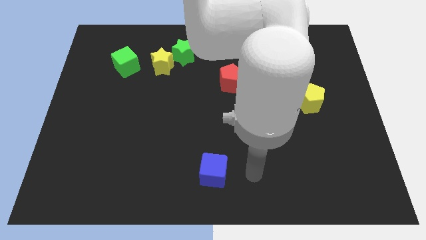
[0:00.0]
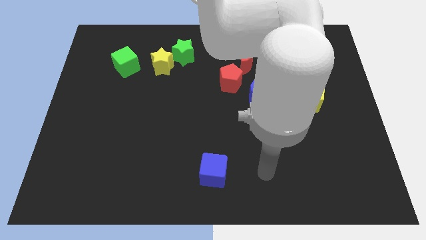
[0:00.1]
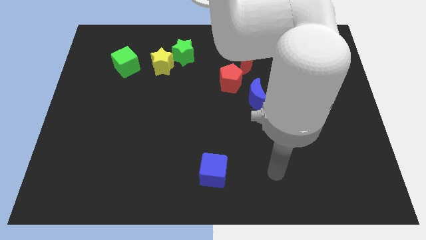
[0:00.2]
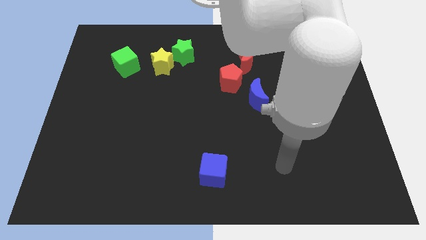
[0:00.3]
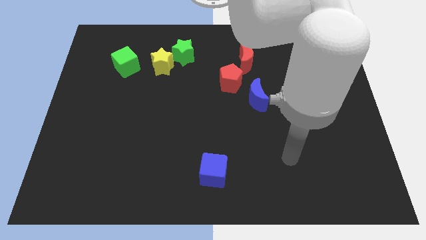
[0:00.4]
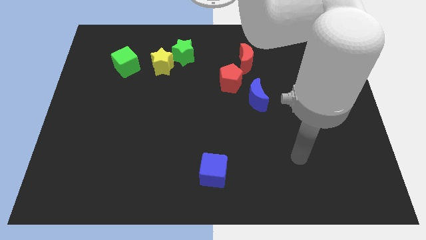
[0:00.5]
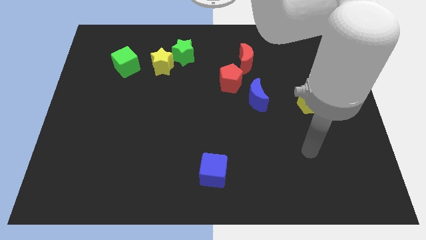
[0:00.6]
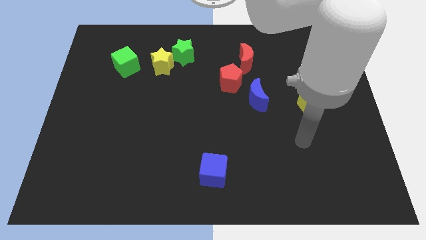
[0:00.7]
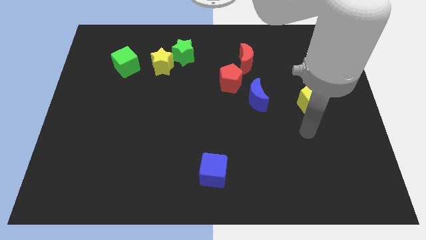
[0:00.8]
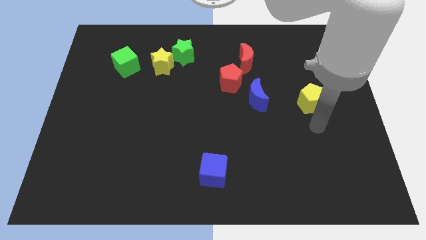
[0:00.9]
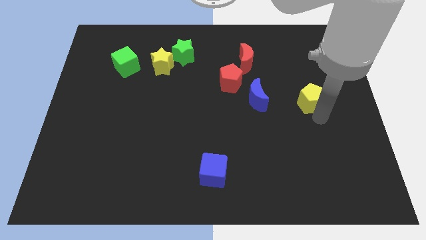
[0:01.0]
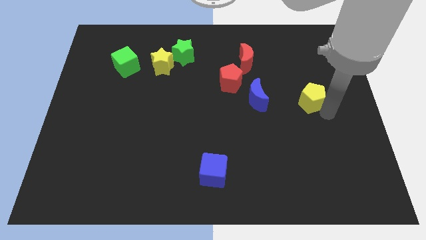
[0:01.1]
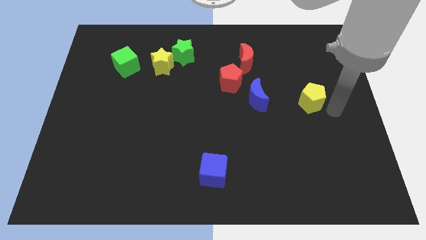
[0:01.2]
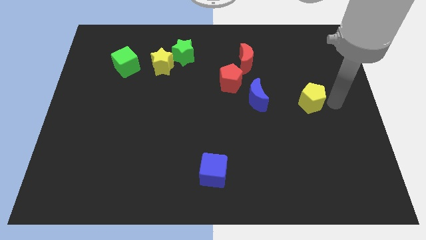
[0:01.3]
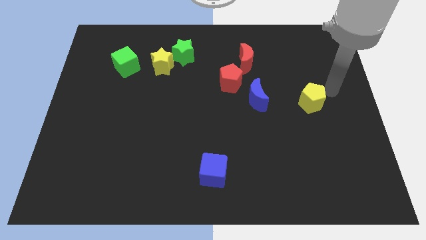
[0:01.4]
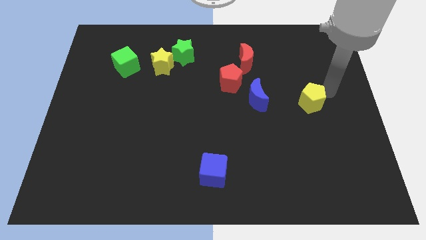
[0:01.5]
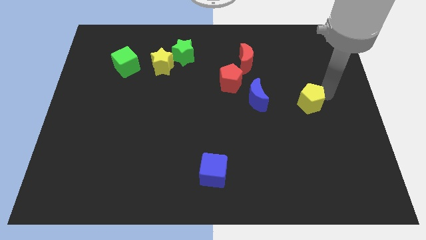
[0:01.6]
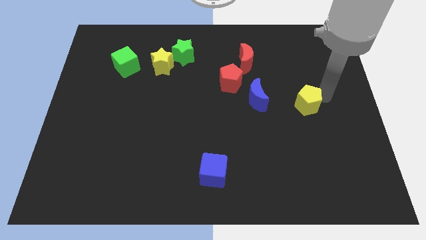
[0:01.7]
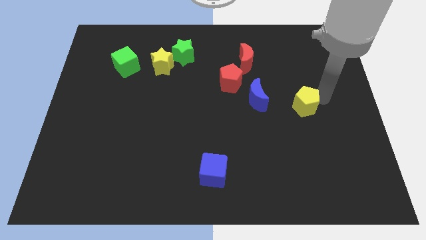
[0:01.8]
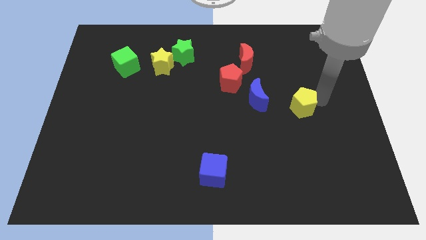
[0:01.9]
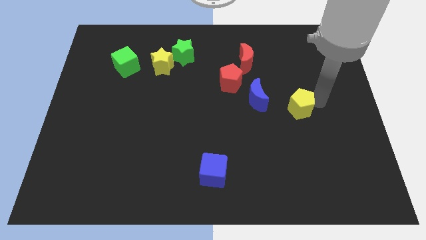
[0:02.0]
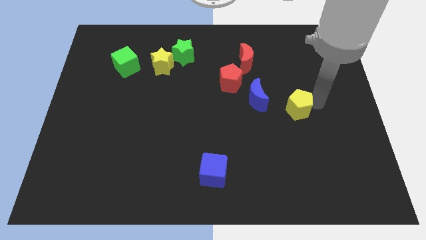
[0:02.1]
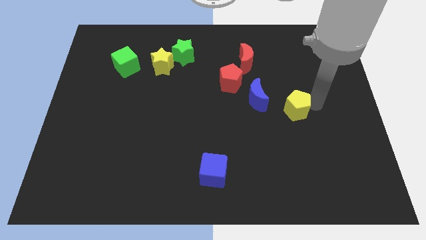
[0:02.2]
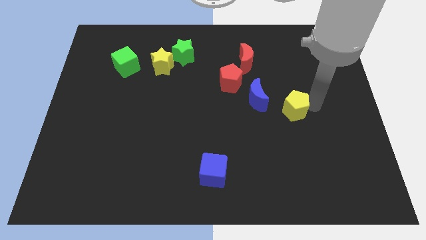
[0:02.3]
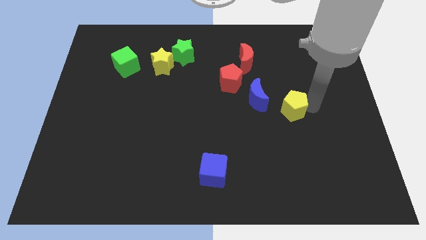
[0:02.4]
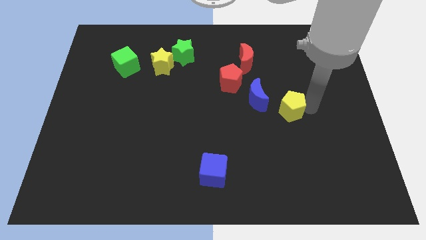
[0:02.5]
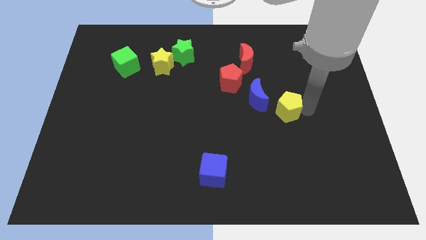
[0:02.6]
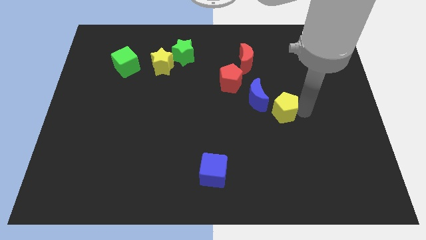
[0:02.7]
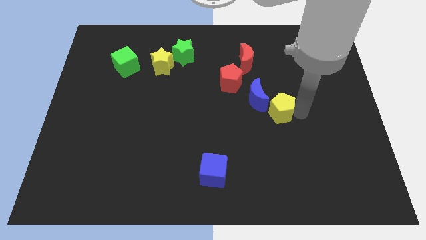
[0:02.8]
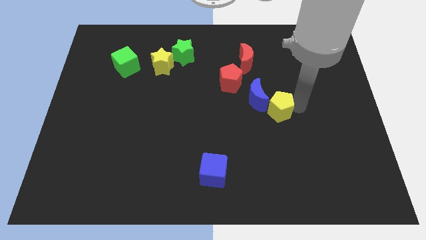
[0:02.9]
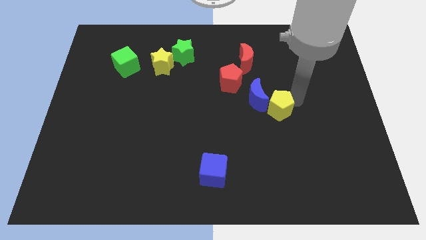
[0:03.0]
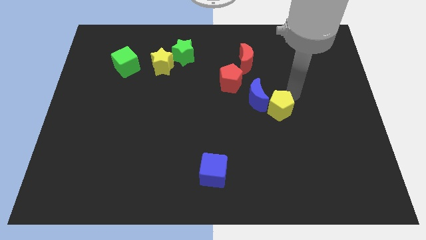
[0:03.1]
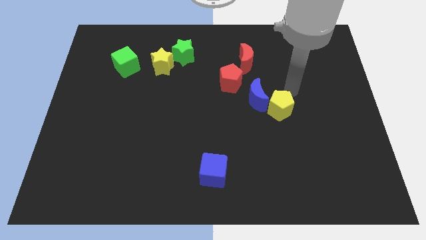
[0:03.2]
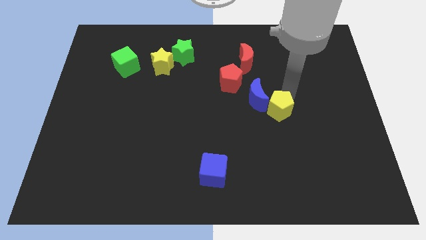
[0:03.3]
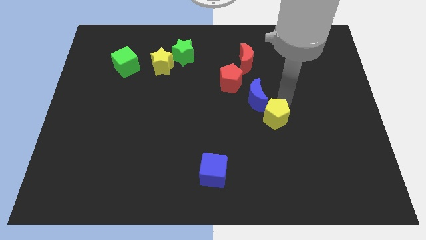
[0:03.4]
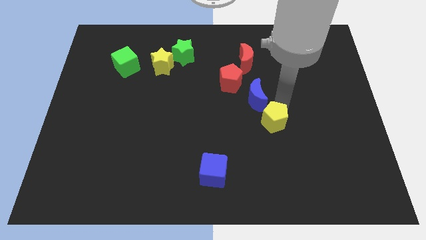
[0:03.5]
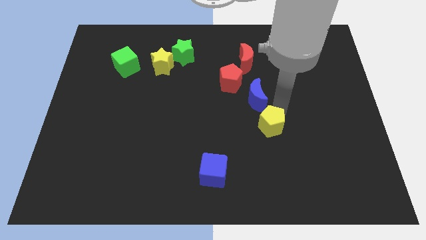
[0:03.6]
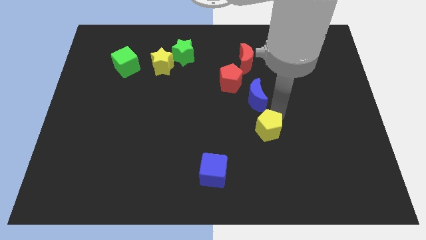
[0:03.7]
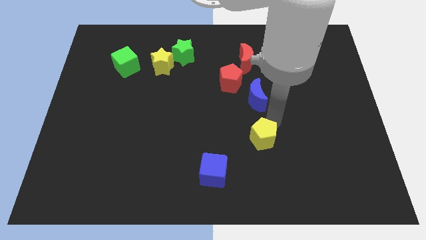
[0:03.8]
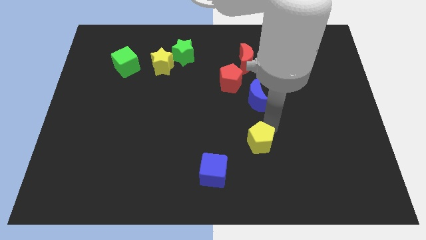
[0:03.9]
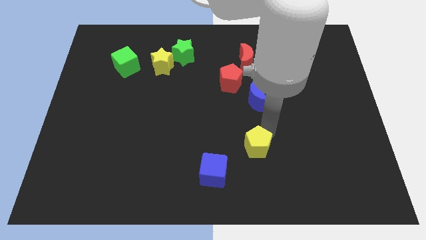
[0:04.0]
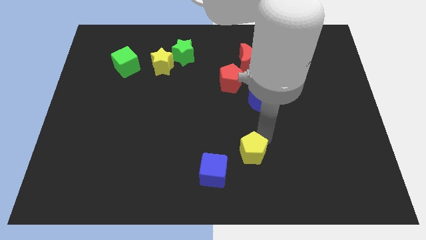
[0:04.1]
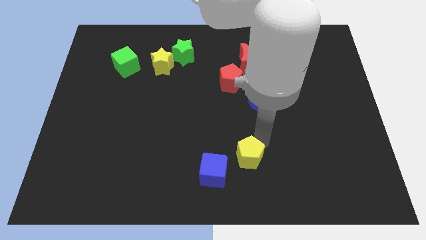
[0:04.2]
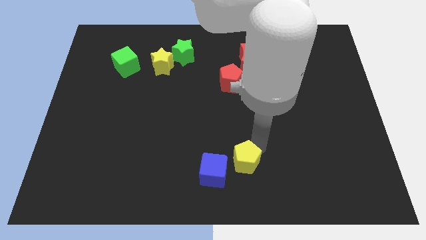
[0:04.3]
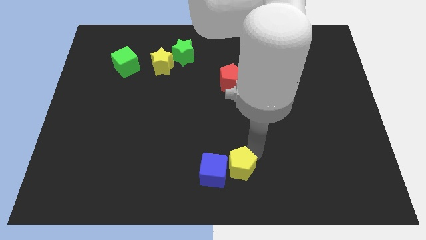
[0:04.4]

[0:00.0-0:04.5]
move the yellow pentagon towards the blue cube

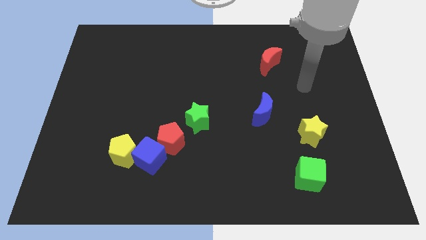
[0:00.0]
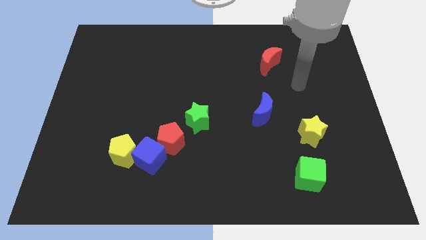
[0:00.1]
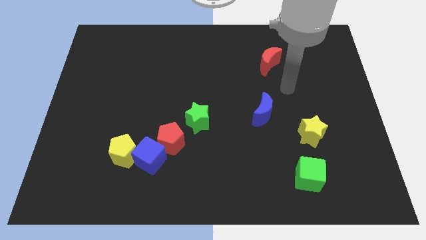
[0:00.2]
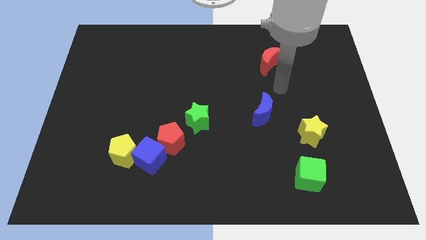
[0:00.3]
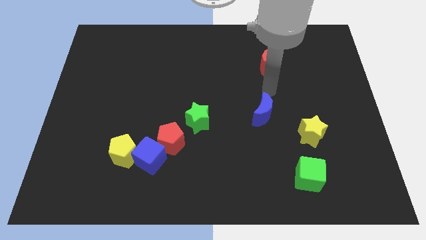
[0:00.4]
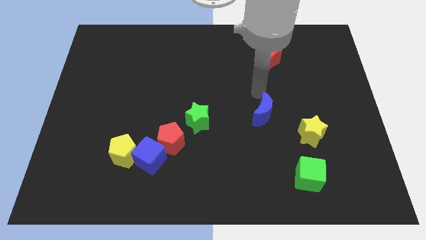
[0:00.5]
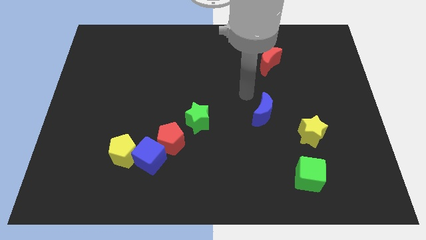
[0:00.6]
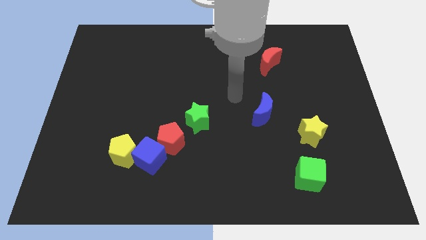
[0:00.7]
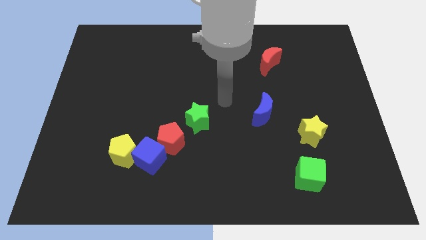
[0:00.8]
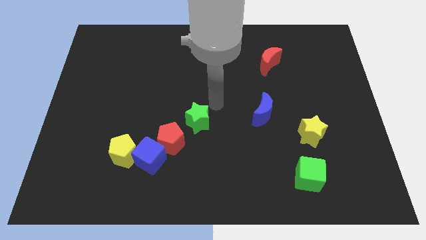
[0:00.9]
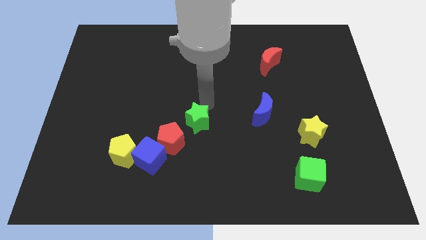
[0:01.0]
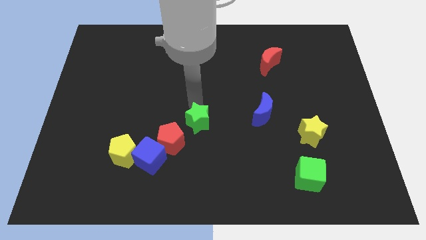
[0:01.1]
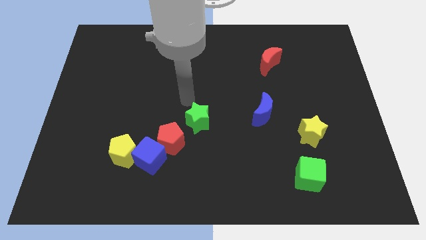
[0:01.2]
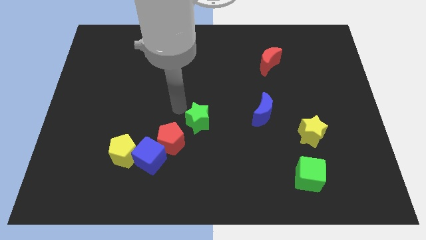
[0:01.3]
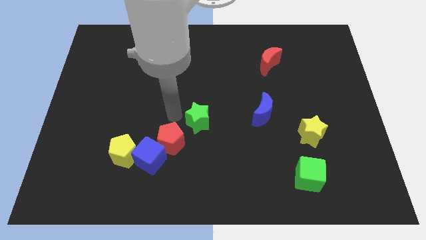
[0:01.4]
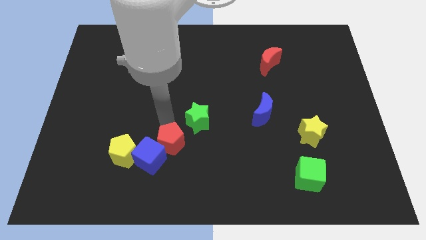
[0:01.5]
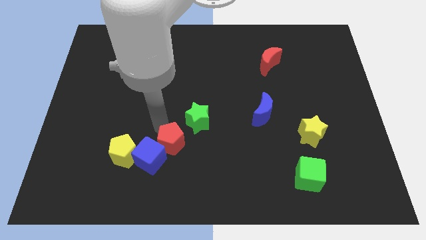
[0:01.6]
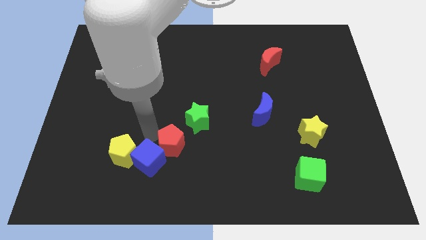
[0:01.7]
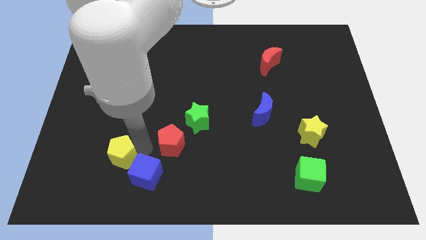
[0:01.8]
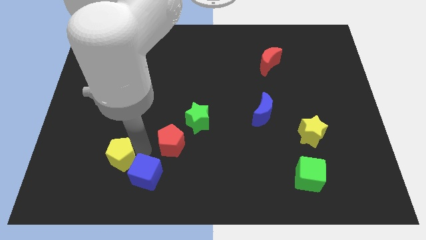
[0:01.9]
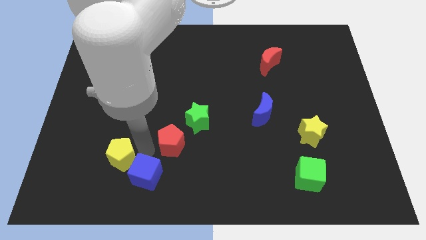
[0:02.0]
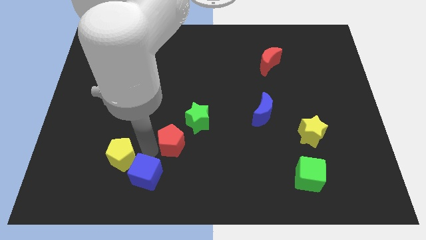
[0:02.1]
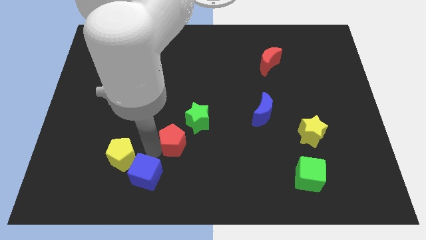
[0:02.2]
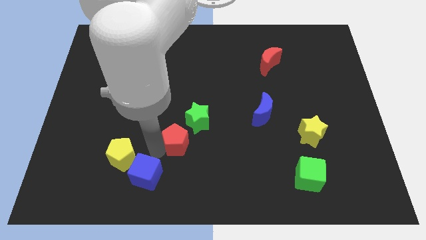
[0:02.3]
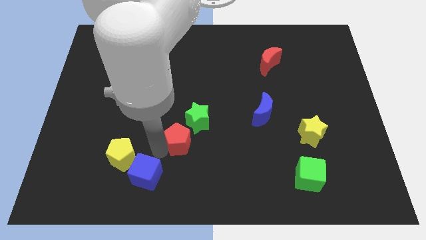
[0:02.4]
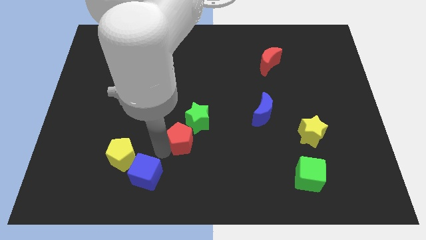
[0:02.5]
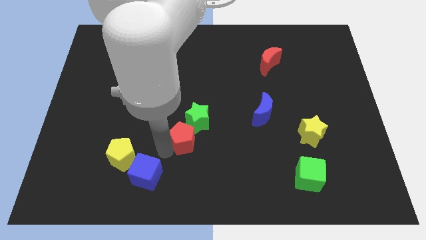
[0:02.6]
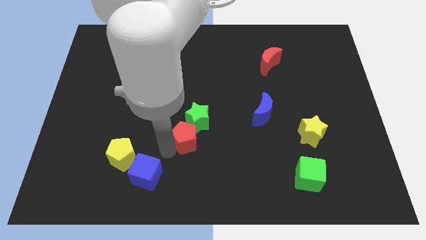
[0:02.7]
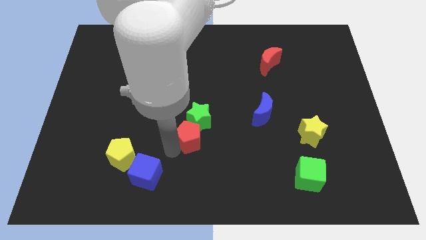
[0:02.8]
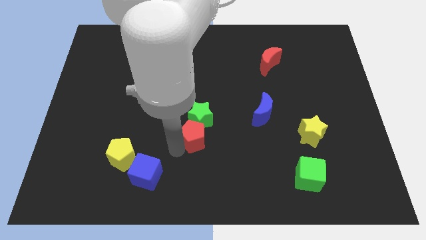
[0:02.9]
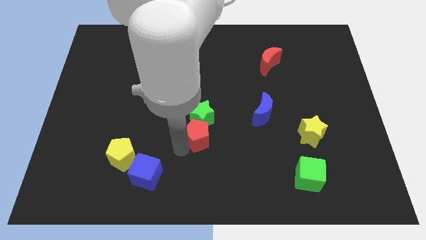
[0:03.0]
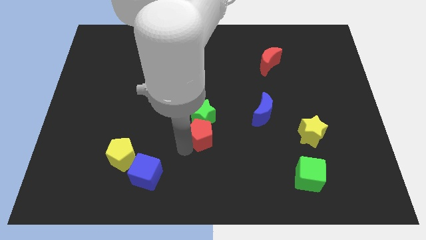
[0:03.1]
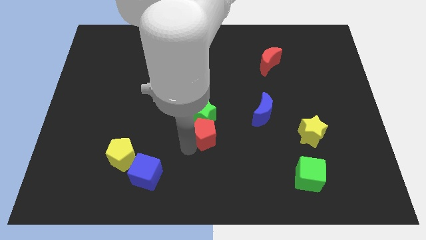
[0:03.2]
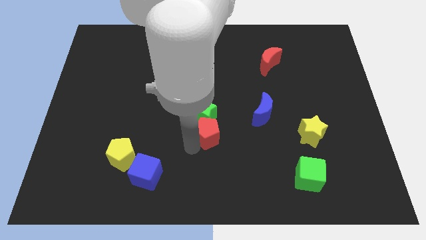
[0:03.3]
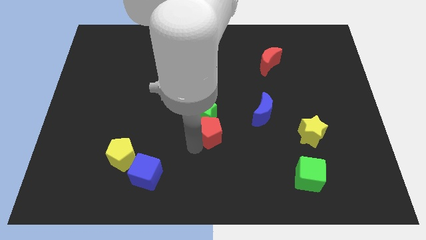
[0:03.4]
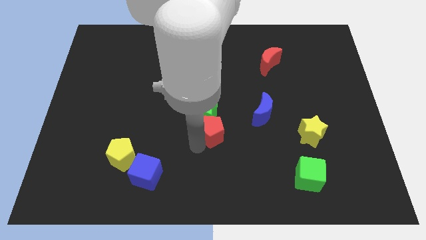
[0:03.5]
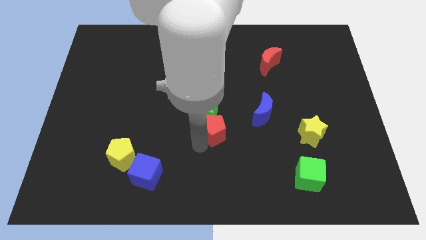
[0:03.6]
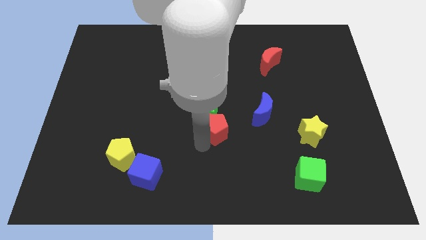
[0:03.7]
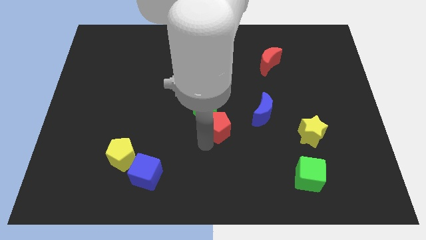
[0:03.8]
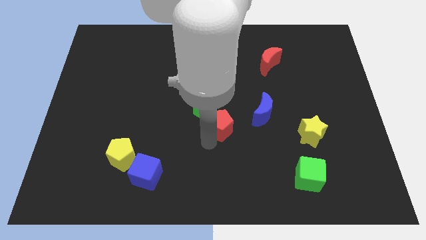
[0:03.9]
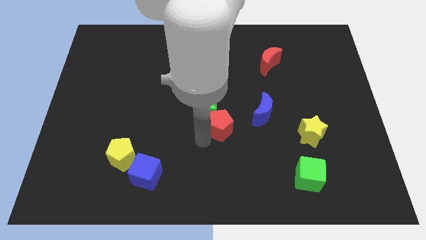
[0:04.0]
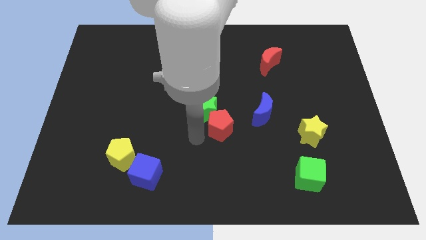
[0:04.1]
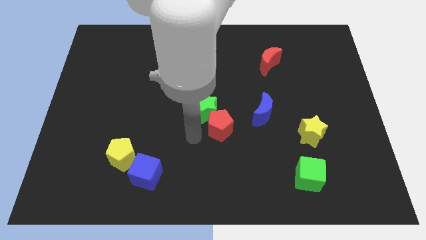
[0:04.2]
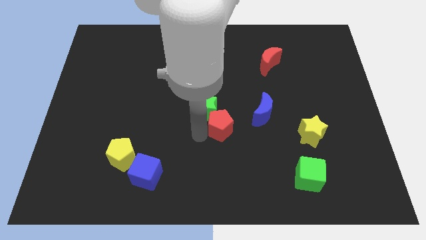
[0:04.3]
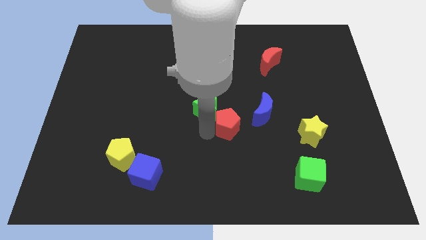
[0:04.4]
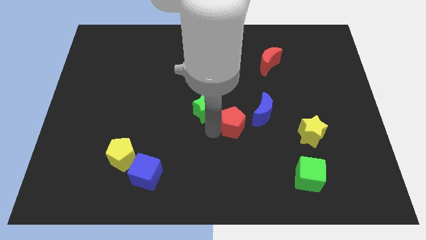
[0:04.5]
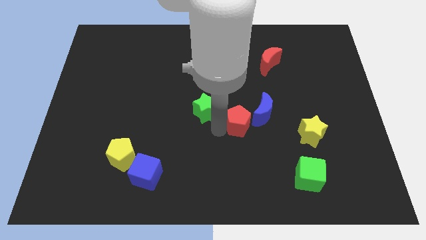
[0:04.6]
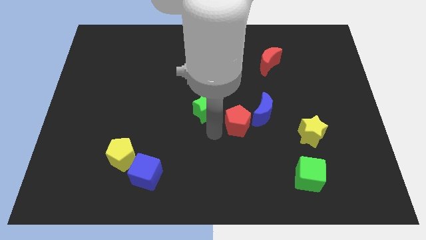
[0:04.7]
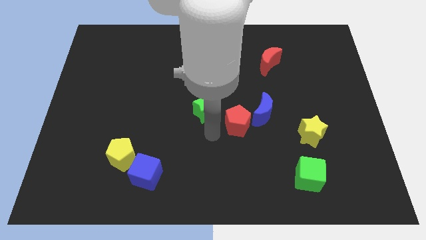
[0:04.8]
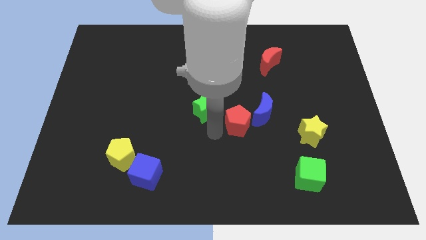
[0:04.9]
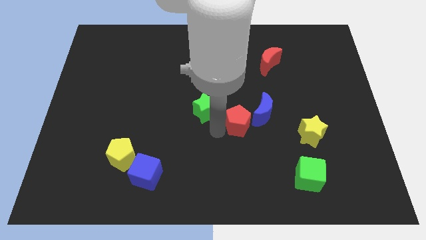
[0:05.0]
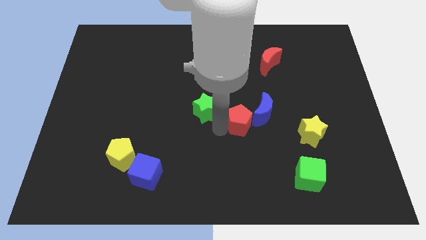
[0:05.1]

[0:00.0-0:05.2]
push the red pentagon next to the blue moon
